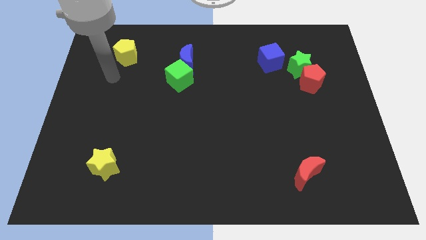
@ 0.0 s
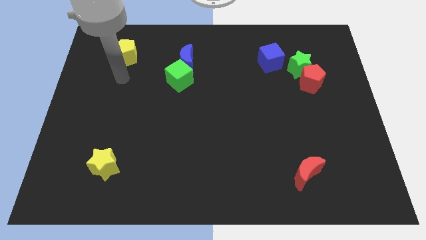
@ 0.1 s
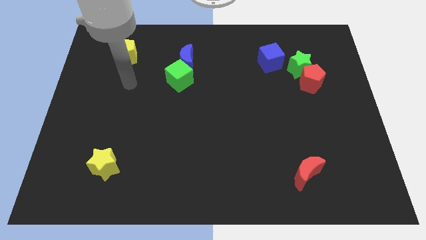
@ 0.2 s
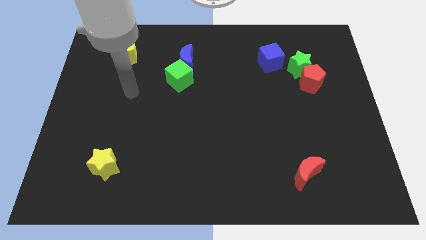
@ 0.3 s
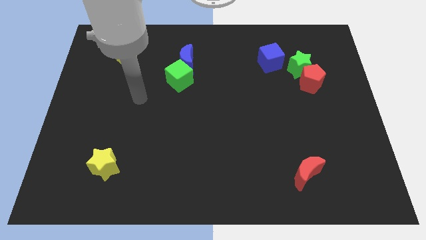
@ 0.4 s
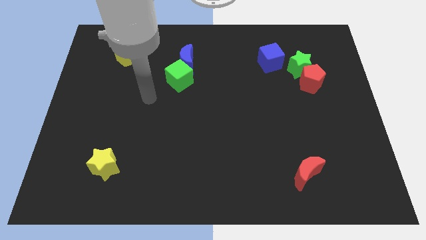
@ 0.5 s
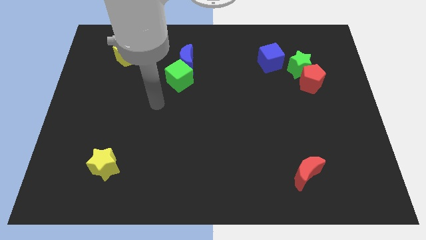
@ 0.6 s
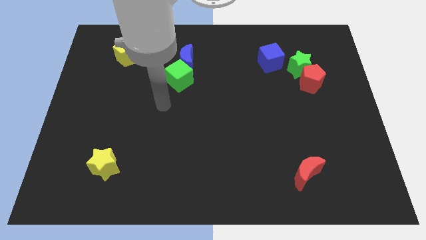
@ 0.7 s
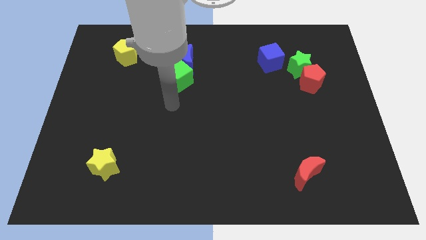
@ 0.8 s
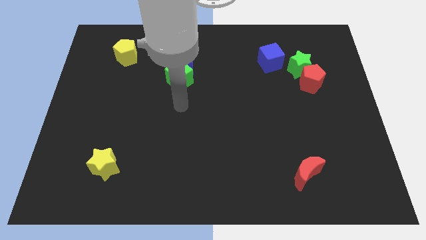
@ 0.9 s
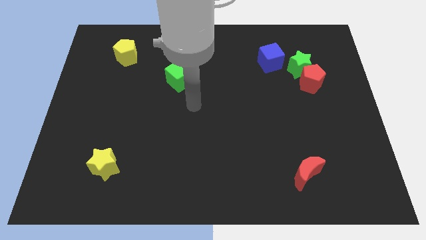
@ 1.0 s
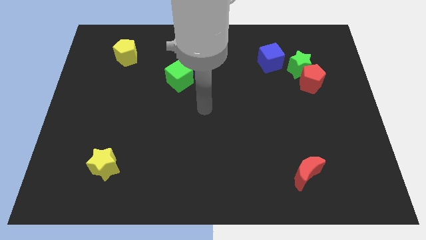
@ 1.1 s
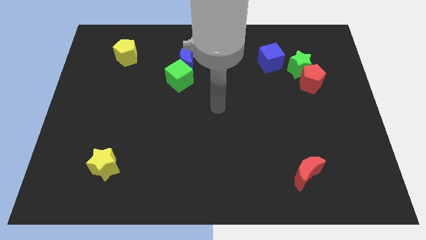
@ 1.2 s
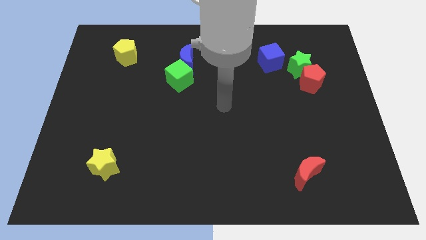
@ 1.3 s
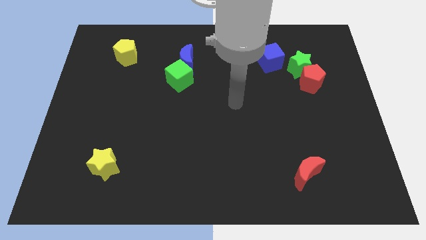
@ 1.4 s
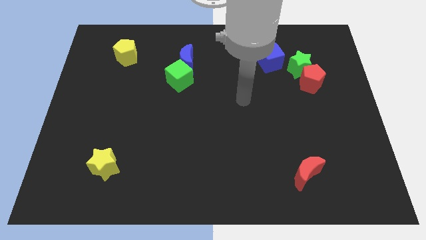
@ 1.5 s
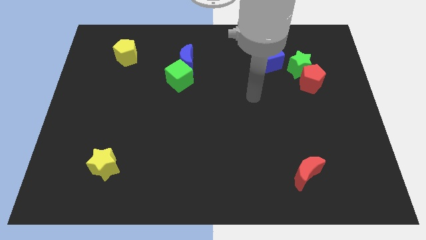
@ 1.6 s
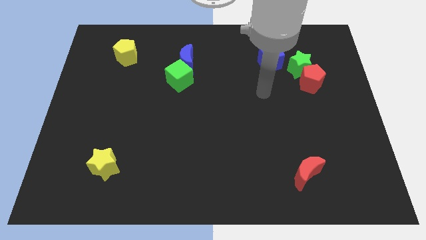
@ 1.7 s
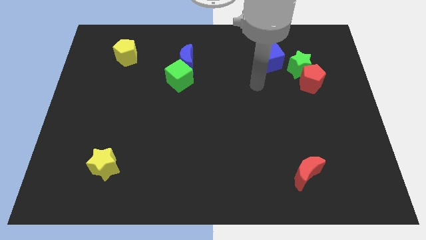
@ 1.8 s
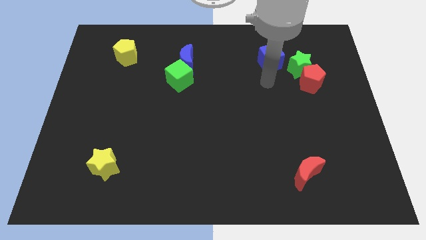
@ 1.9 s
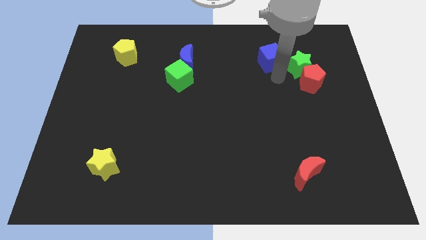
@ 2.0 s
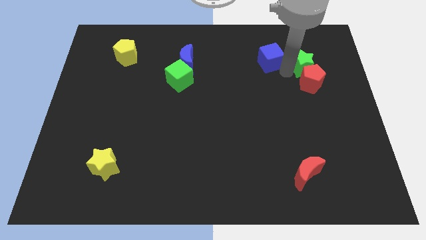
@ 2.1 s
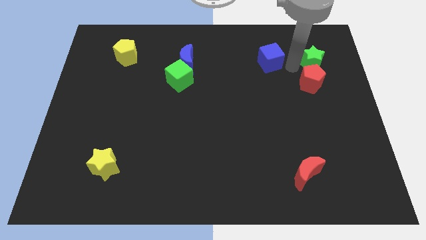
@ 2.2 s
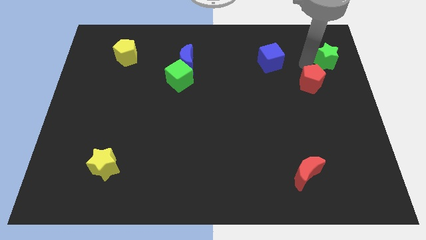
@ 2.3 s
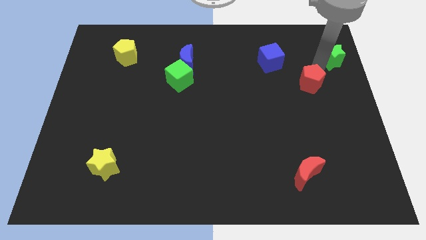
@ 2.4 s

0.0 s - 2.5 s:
separate the red pentagon from the green star

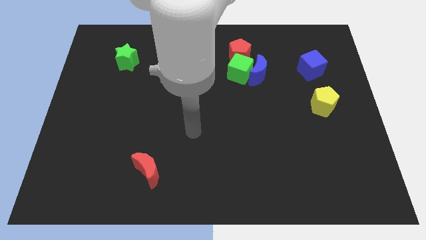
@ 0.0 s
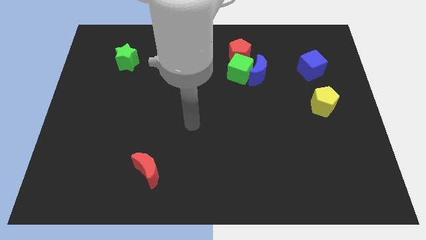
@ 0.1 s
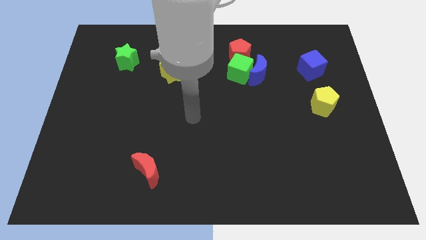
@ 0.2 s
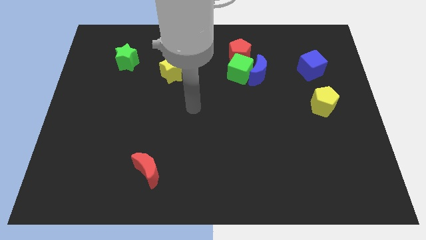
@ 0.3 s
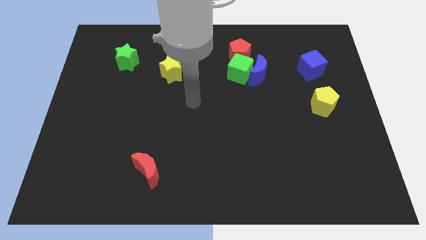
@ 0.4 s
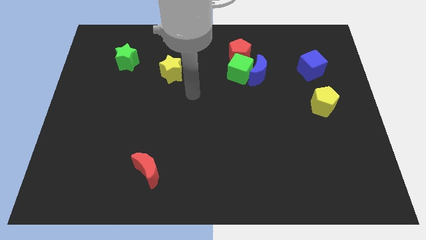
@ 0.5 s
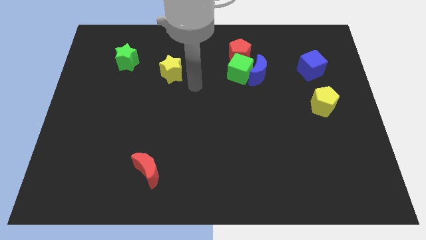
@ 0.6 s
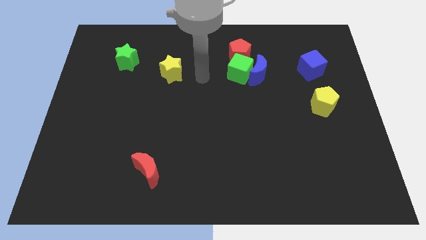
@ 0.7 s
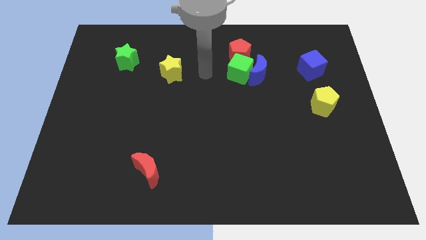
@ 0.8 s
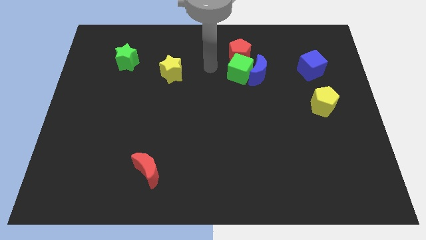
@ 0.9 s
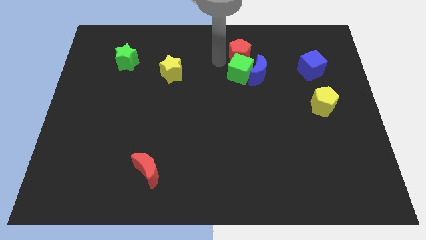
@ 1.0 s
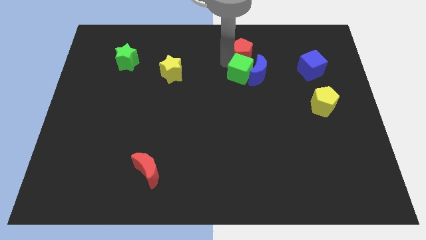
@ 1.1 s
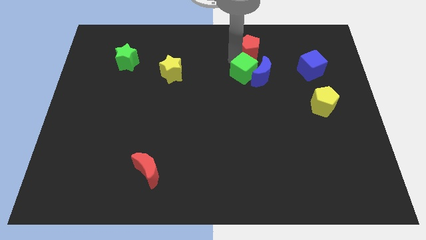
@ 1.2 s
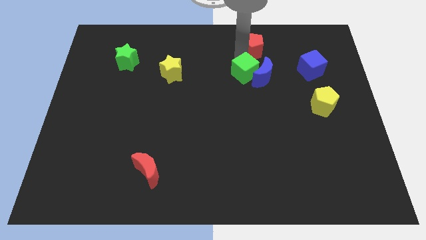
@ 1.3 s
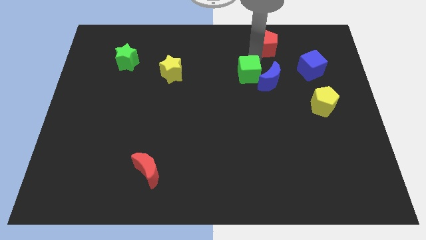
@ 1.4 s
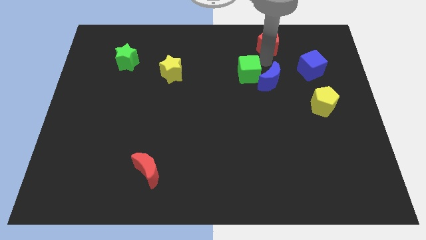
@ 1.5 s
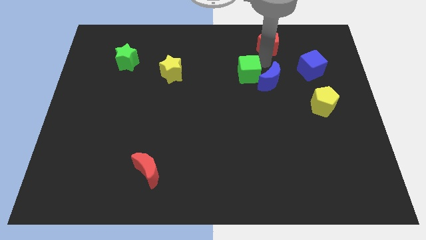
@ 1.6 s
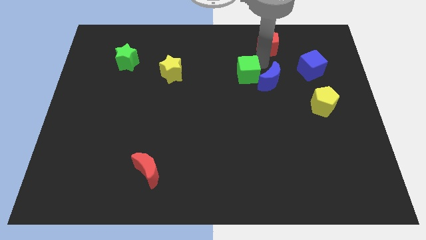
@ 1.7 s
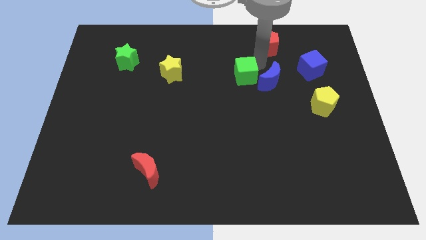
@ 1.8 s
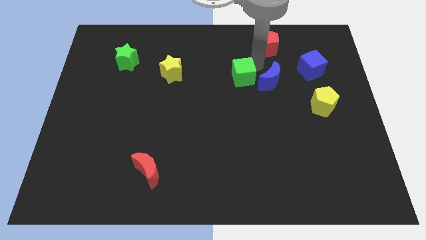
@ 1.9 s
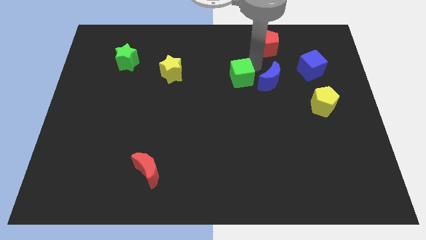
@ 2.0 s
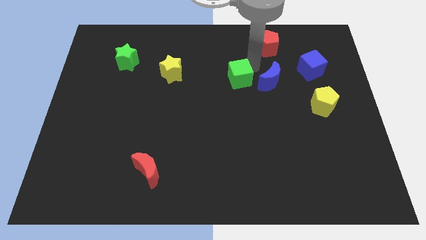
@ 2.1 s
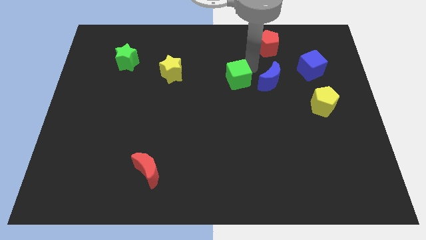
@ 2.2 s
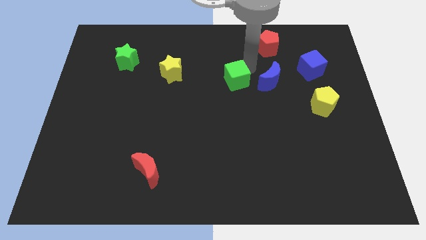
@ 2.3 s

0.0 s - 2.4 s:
separate the green cube from the blue moon and red pentagon

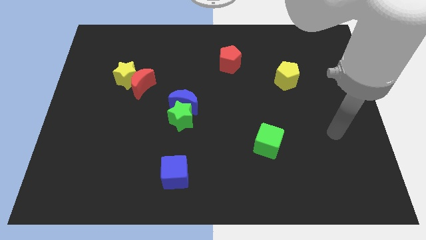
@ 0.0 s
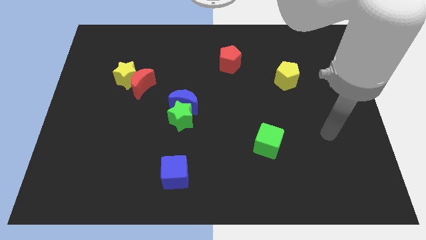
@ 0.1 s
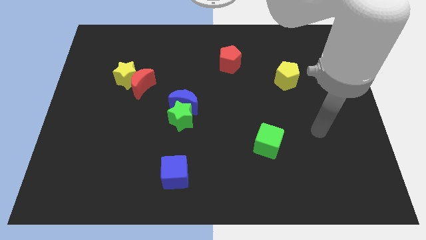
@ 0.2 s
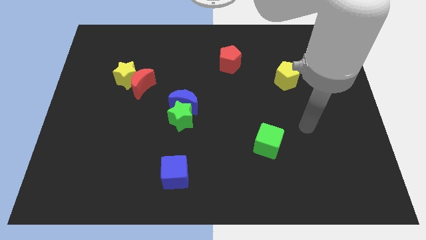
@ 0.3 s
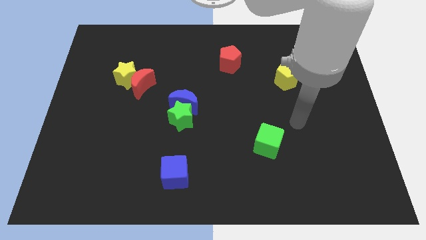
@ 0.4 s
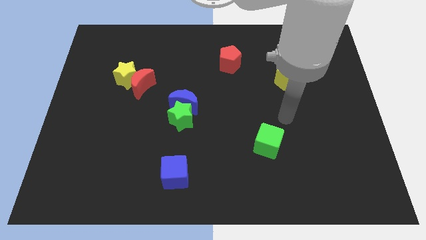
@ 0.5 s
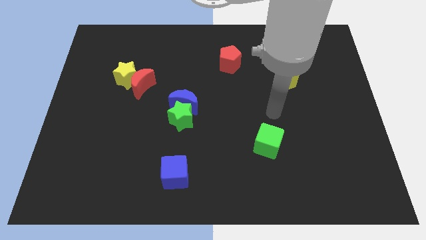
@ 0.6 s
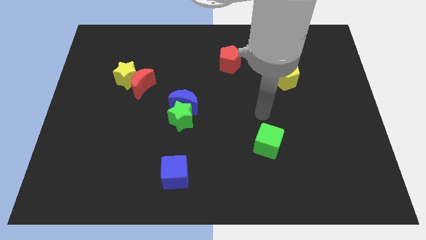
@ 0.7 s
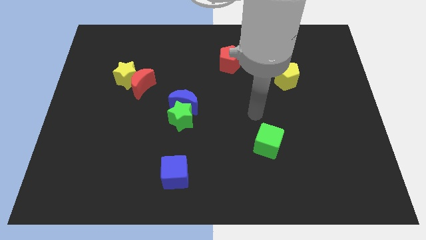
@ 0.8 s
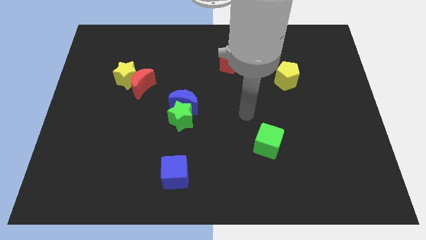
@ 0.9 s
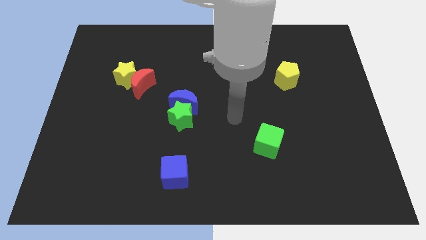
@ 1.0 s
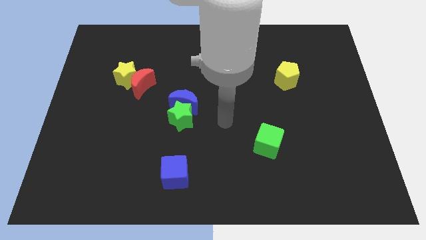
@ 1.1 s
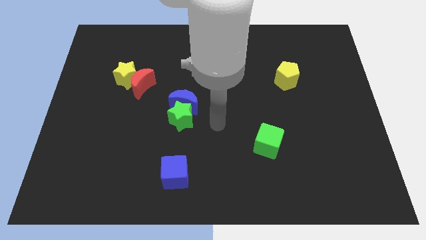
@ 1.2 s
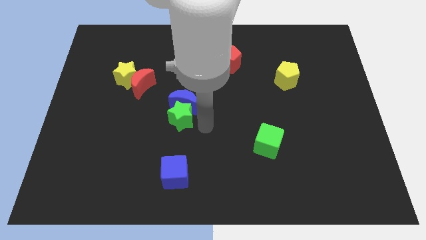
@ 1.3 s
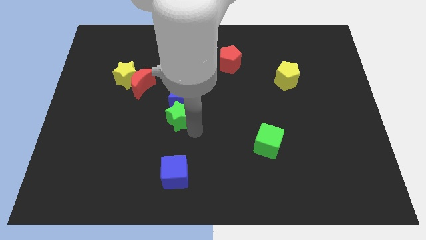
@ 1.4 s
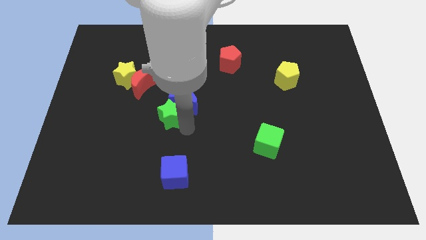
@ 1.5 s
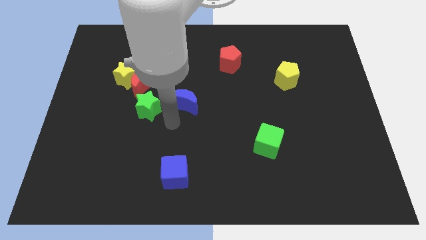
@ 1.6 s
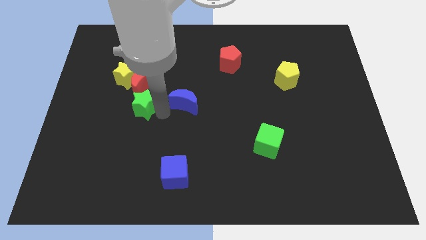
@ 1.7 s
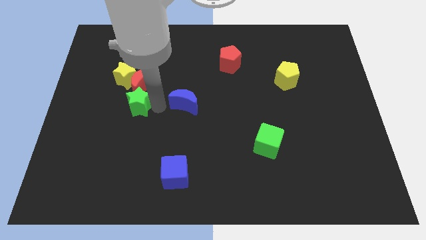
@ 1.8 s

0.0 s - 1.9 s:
separate the blue moon from the green star

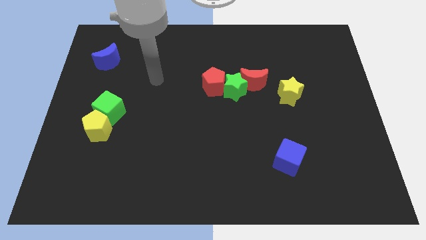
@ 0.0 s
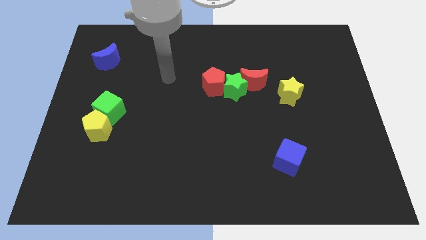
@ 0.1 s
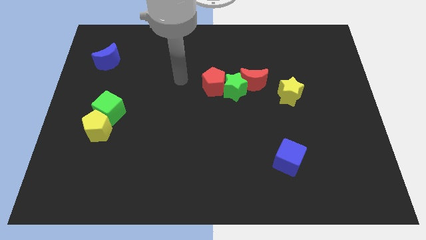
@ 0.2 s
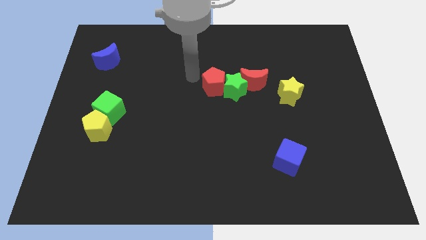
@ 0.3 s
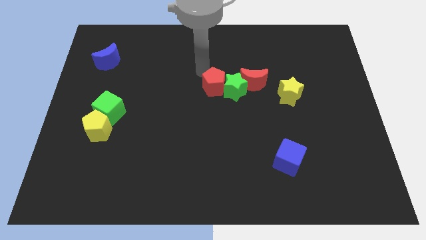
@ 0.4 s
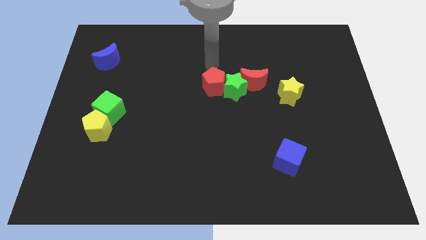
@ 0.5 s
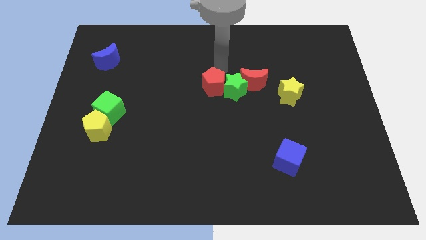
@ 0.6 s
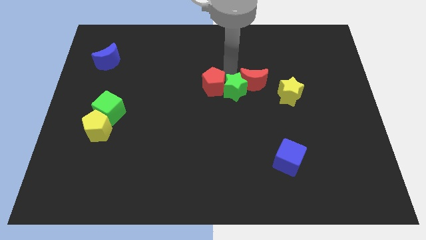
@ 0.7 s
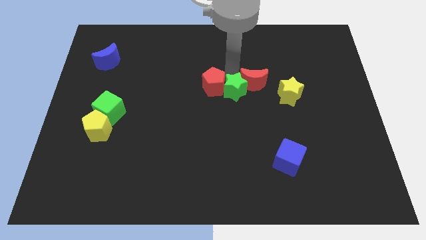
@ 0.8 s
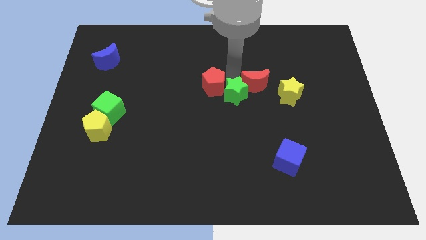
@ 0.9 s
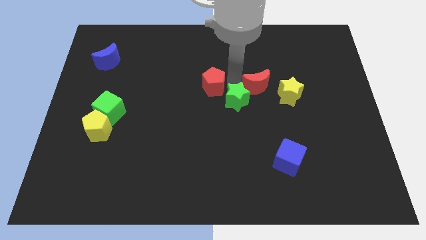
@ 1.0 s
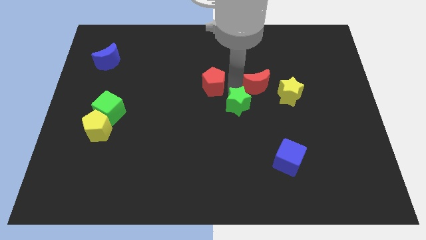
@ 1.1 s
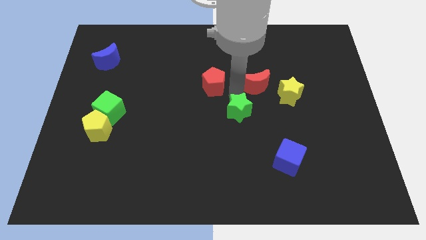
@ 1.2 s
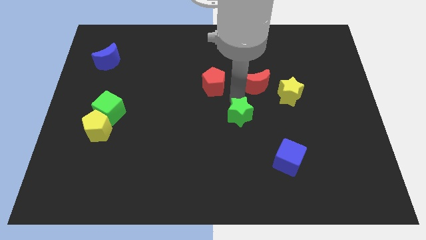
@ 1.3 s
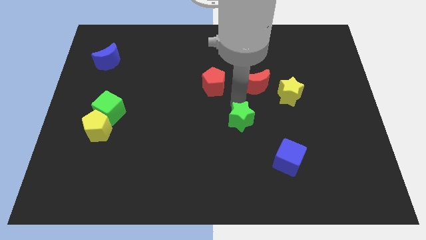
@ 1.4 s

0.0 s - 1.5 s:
separate the green star from the red moon and red pentagon

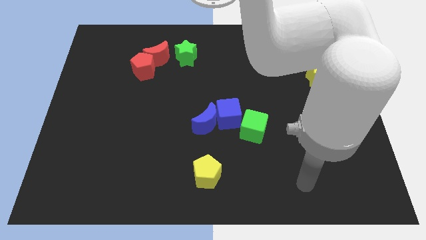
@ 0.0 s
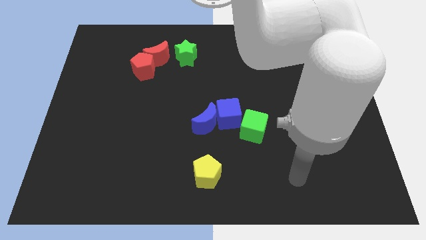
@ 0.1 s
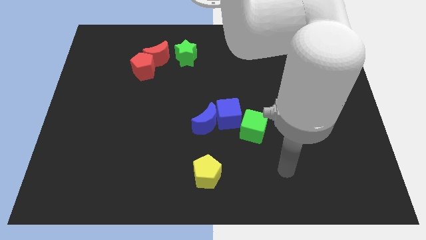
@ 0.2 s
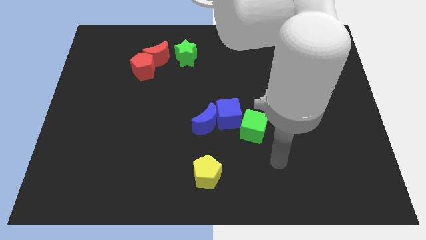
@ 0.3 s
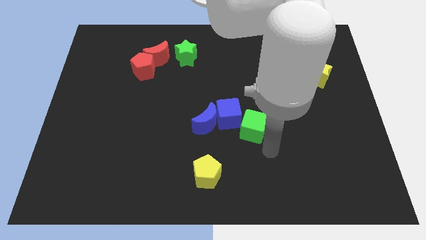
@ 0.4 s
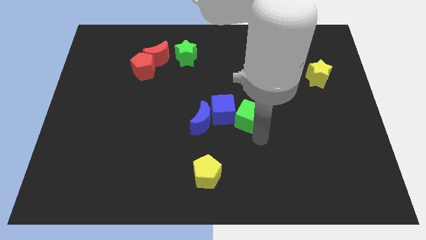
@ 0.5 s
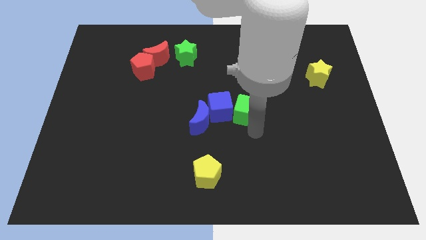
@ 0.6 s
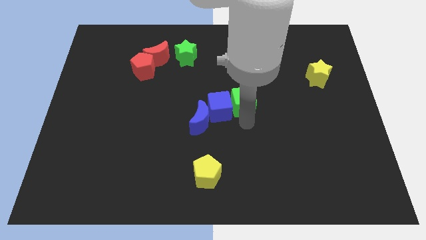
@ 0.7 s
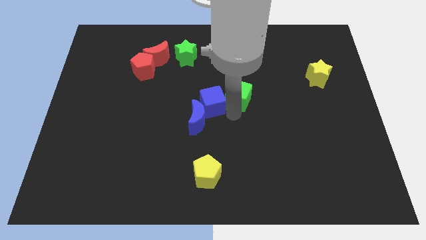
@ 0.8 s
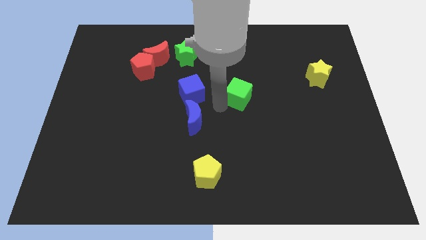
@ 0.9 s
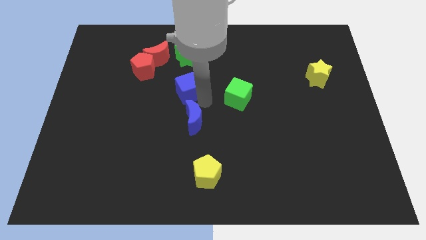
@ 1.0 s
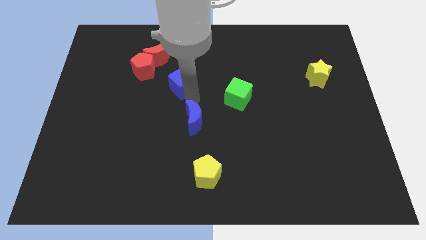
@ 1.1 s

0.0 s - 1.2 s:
separate the blue moon from the blue cube
